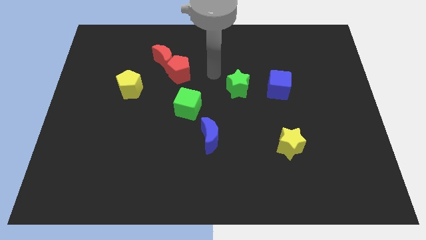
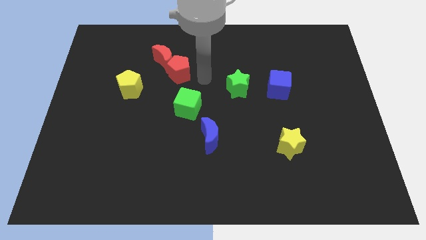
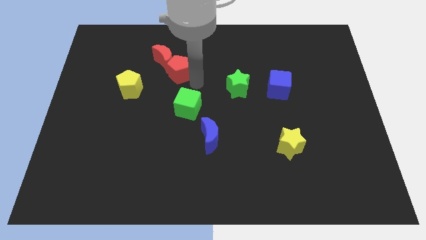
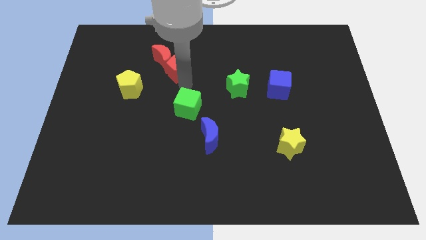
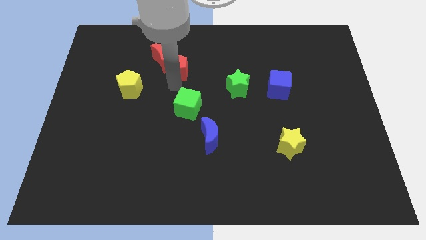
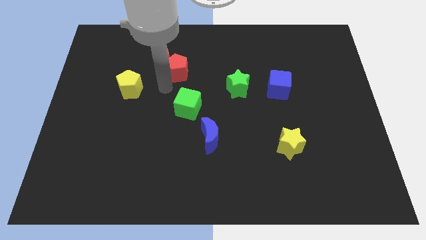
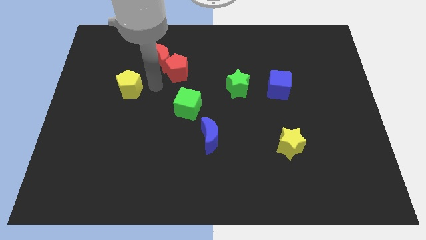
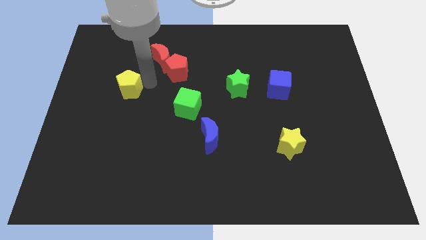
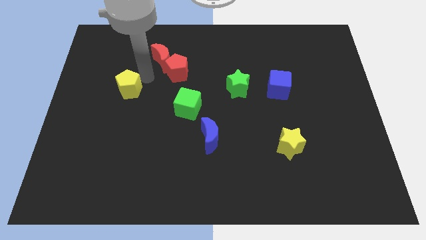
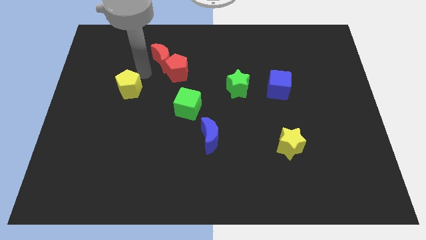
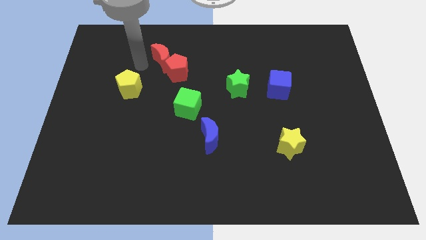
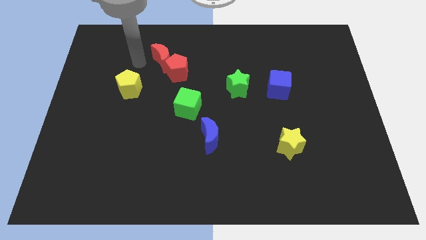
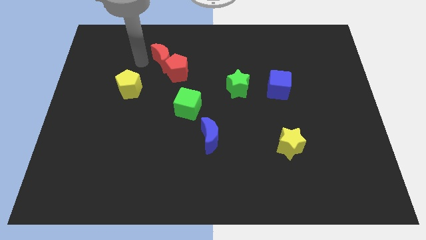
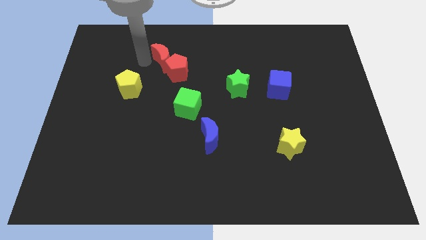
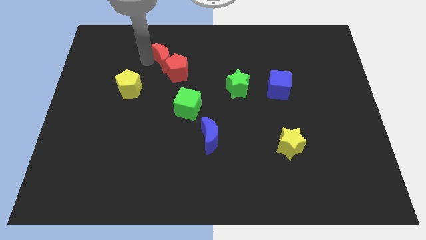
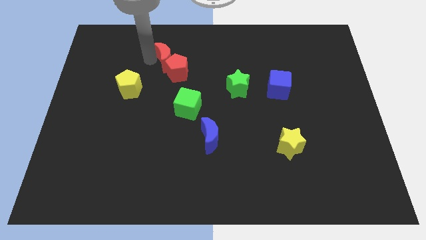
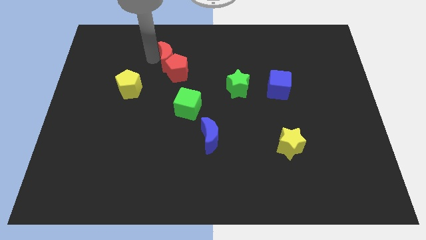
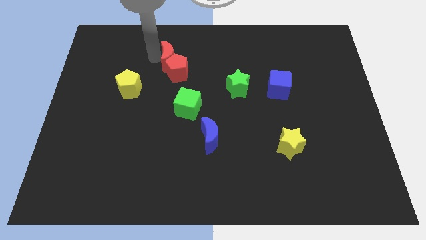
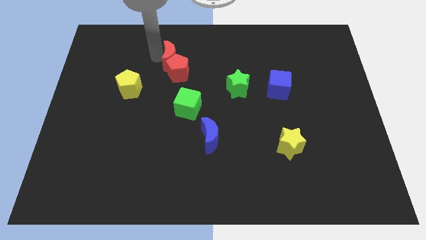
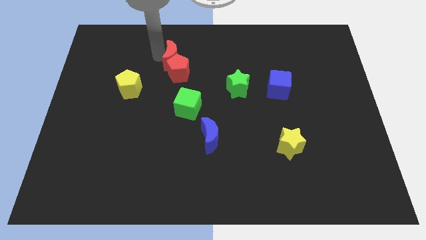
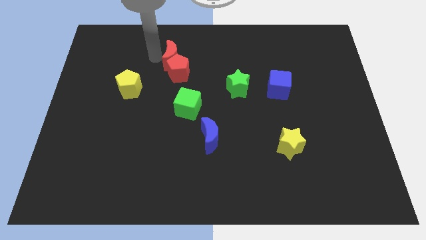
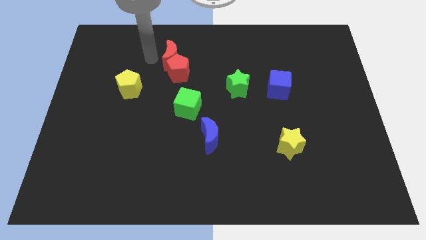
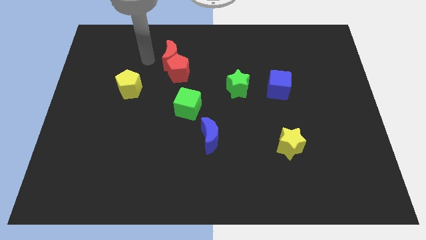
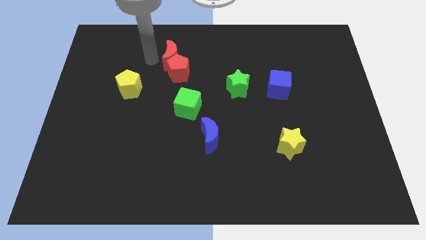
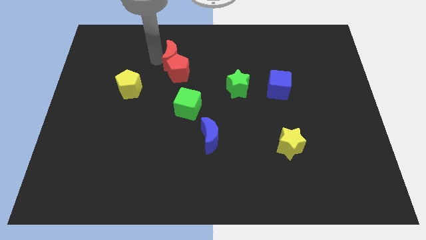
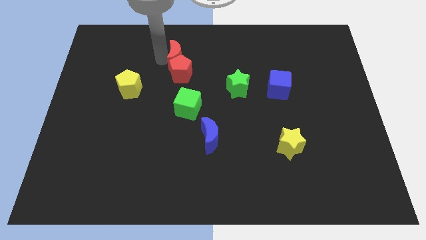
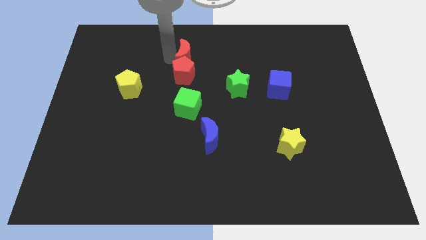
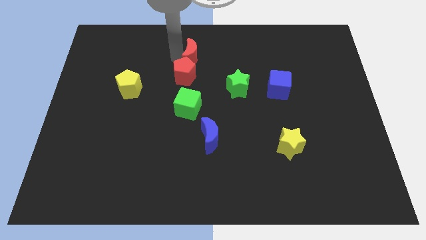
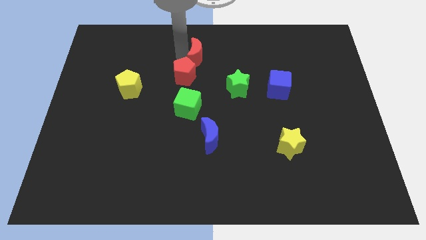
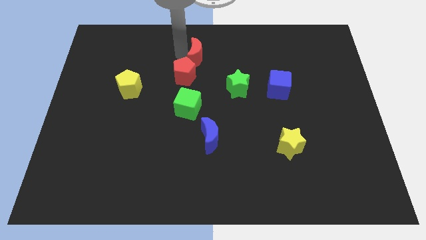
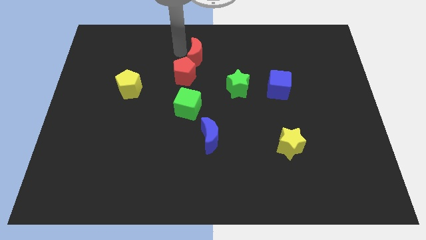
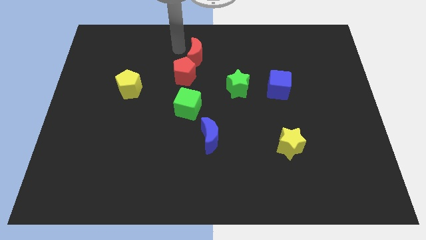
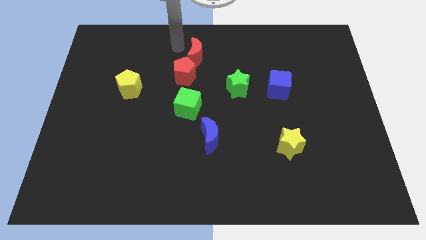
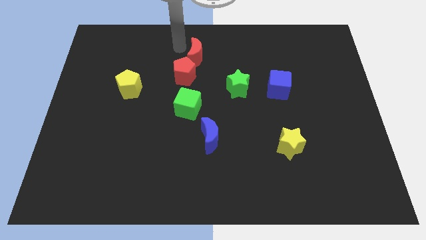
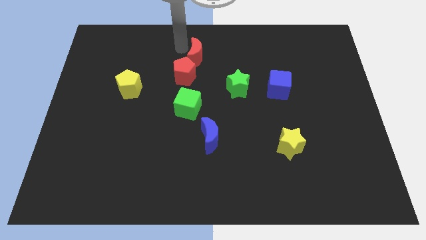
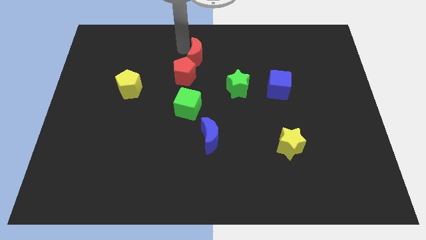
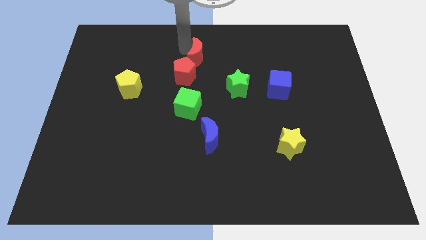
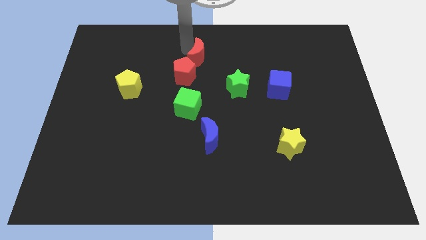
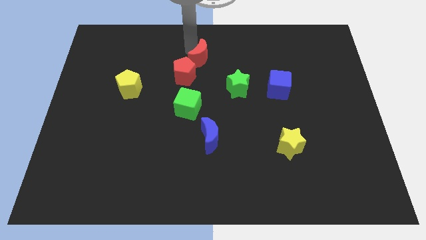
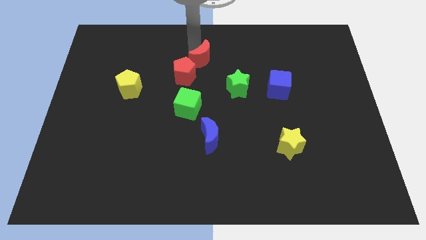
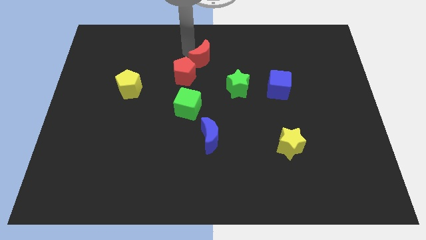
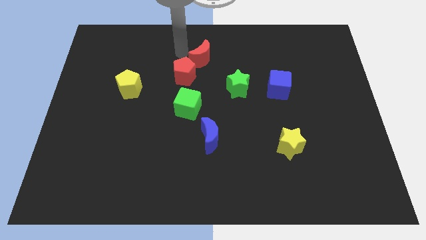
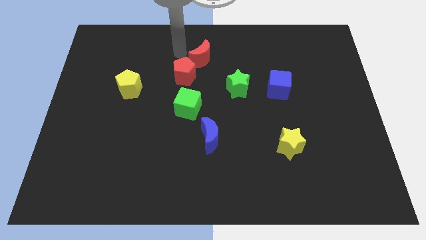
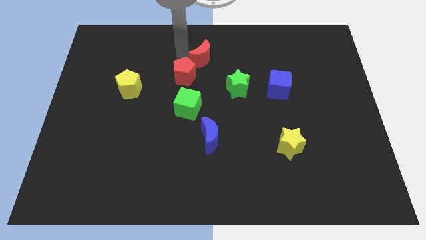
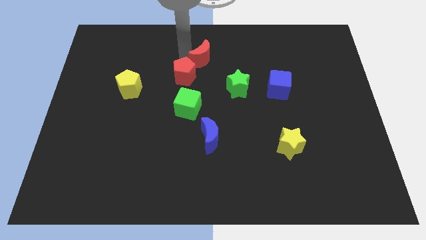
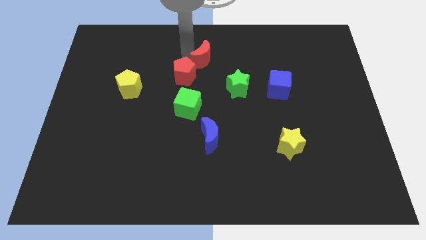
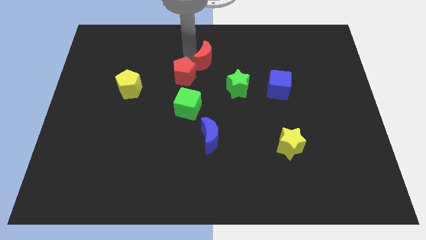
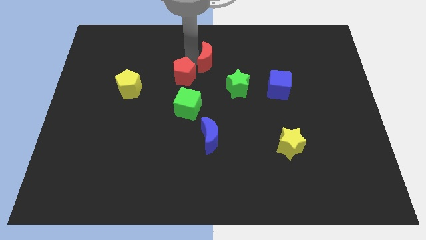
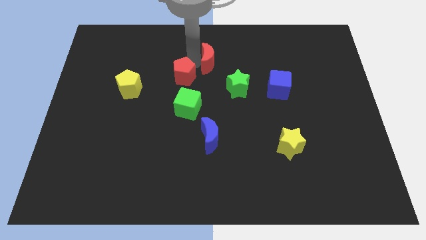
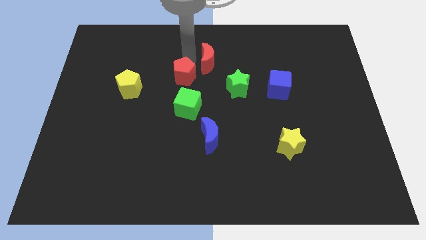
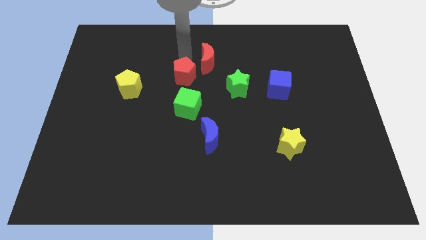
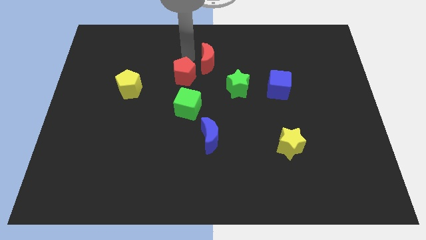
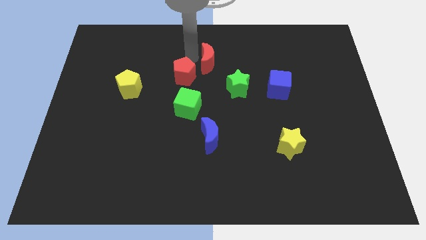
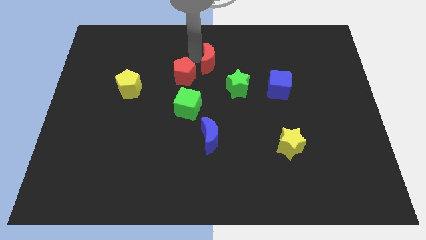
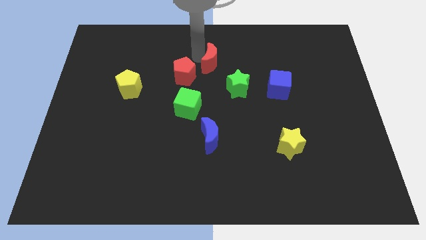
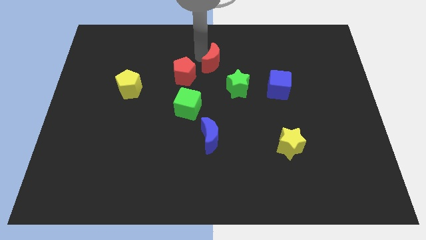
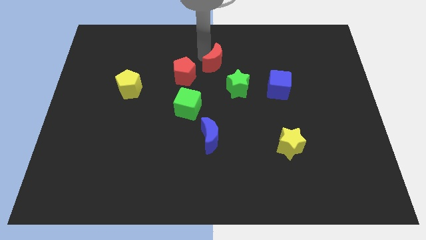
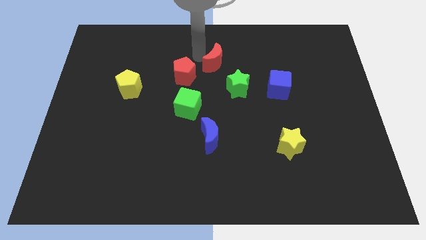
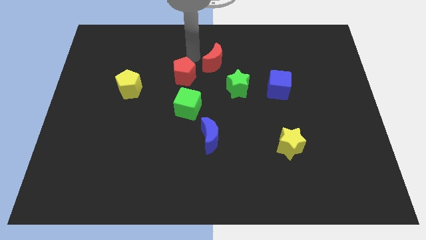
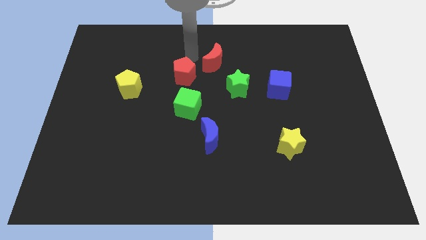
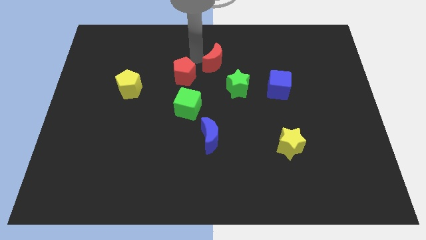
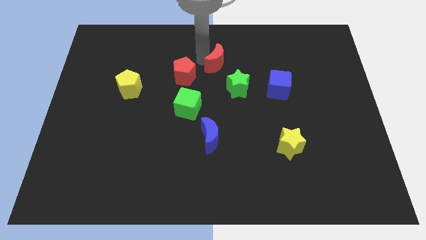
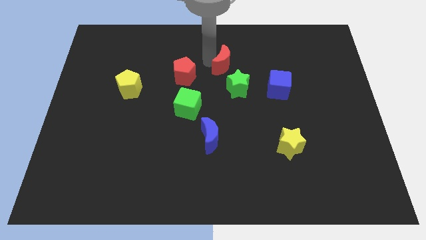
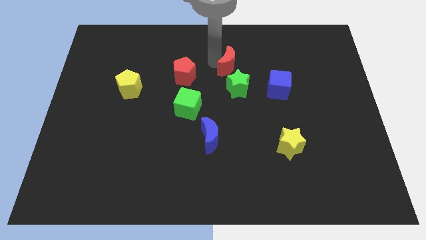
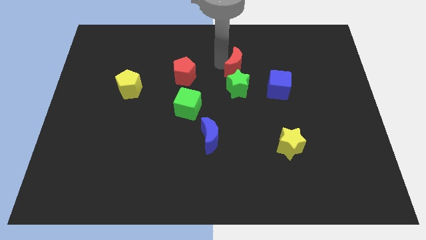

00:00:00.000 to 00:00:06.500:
put the red moon to the top left of the blue cube

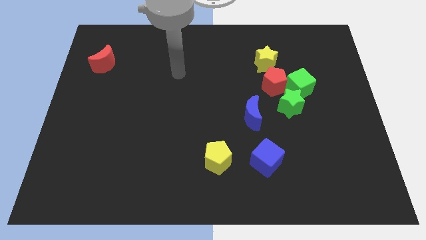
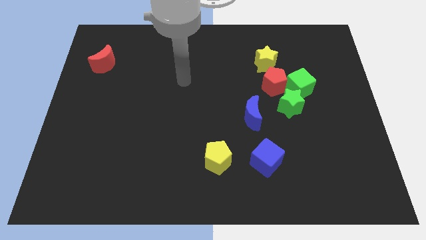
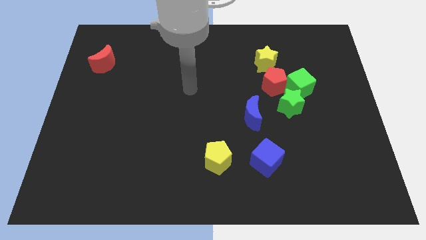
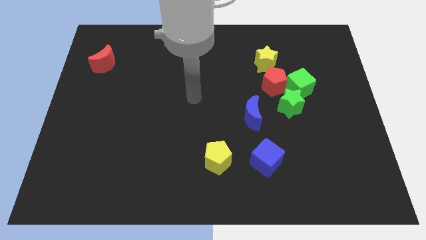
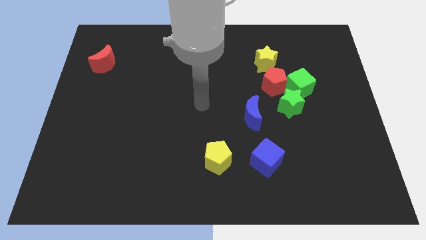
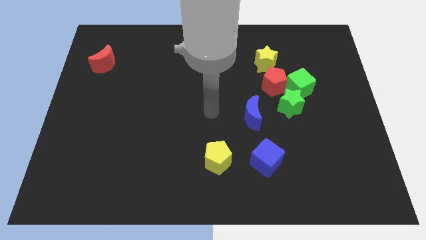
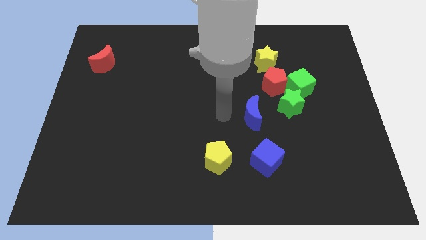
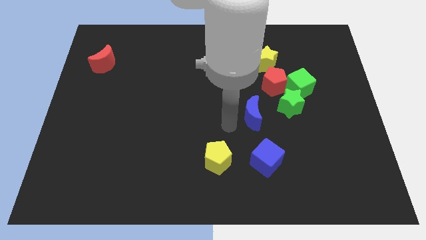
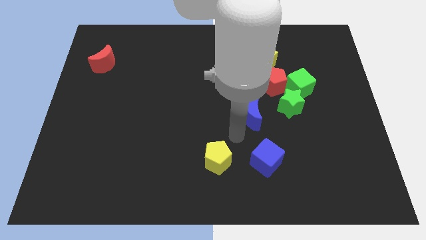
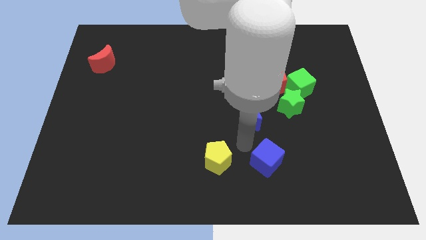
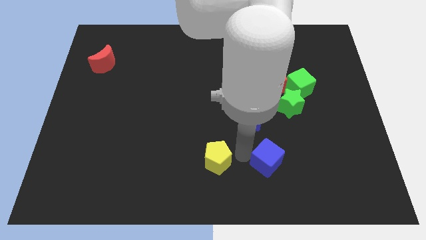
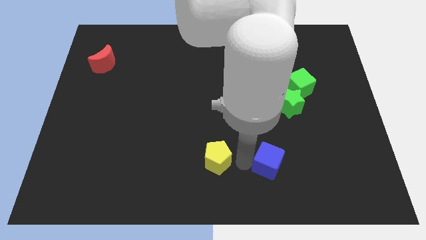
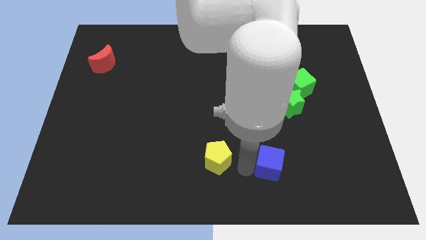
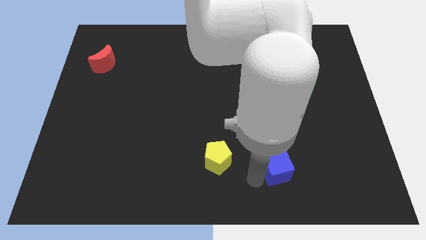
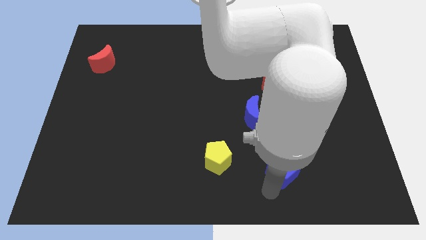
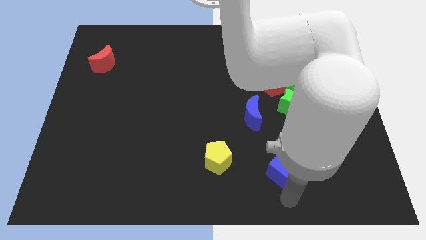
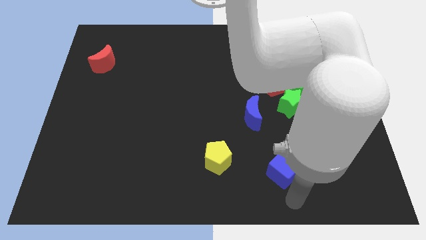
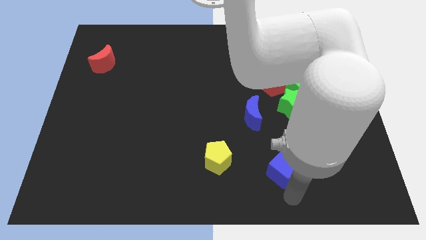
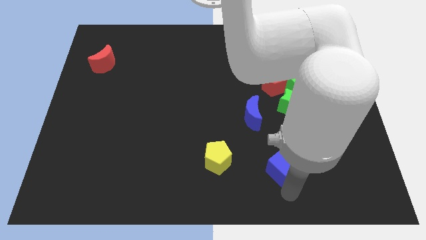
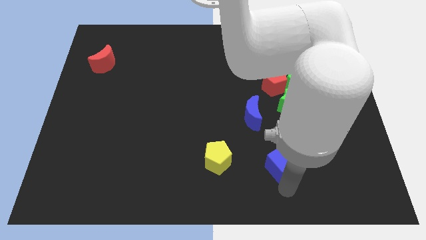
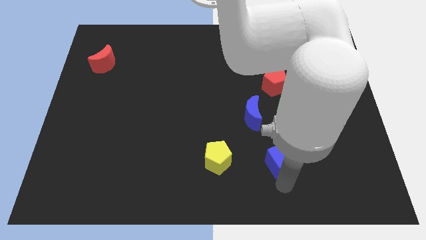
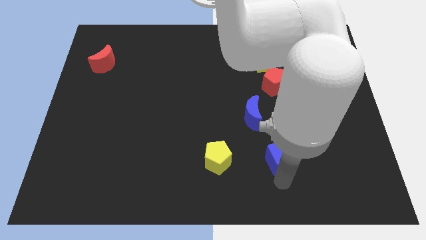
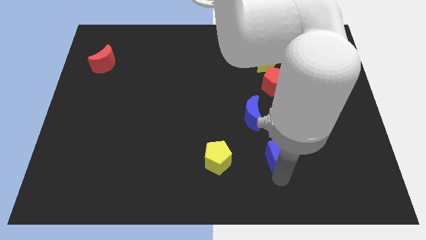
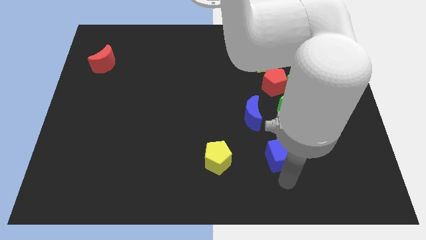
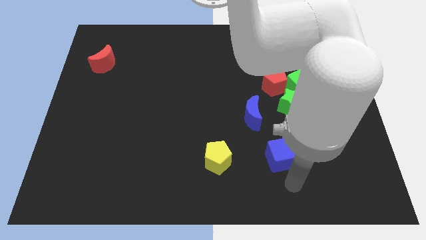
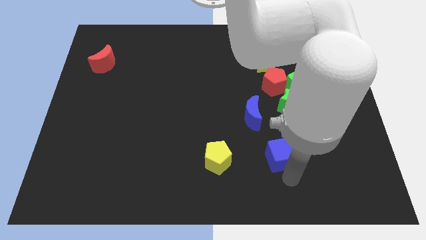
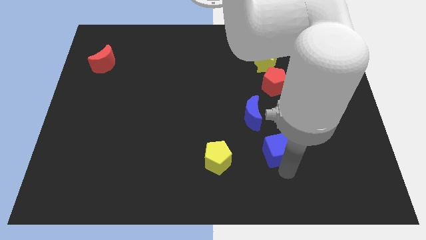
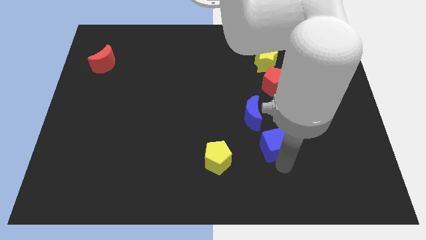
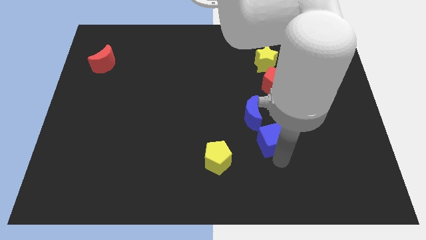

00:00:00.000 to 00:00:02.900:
put the blue cube to the bottom left of the green star
